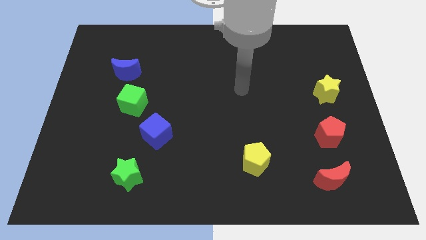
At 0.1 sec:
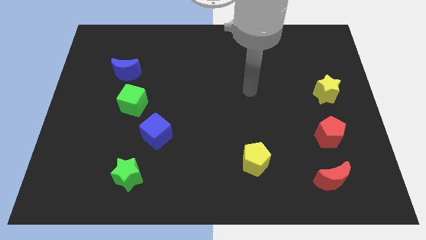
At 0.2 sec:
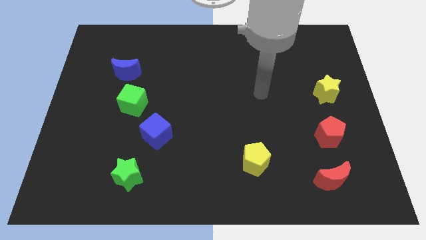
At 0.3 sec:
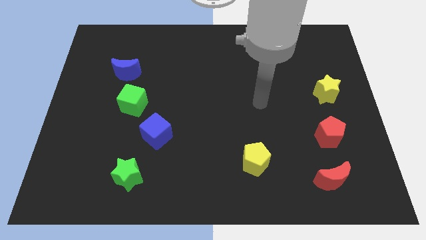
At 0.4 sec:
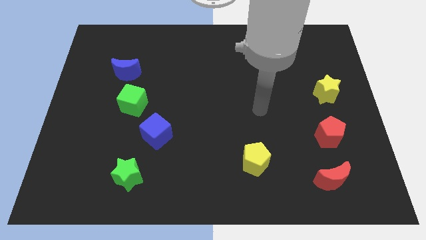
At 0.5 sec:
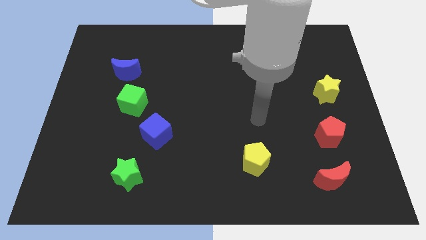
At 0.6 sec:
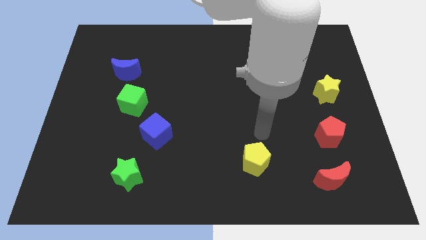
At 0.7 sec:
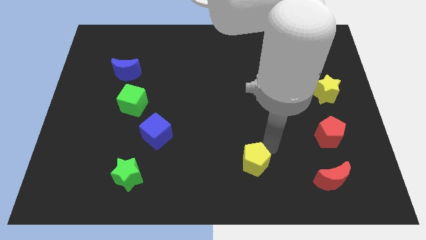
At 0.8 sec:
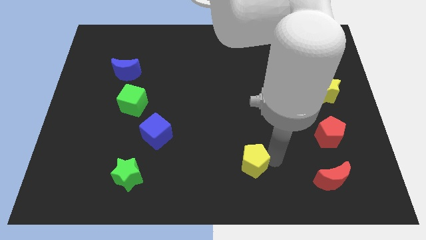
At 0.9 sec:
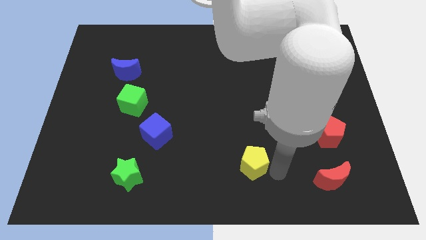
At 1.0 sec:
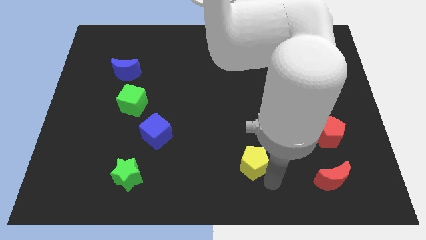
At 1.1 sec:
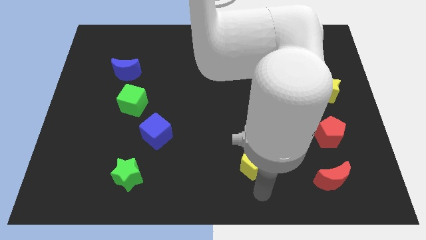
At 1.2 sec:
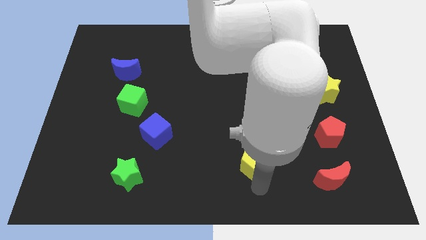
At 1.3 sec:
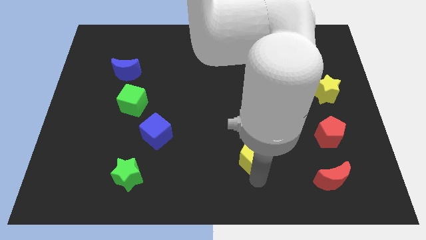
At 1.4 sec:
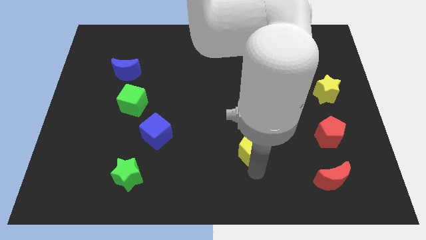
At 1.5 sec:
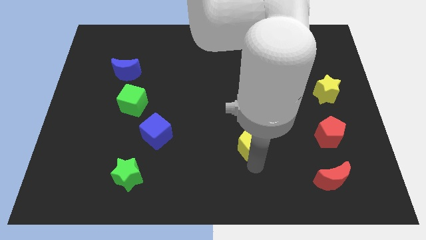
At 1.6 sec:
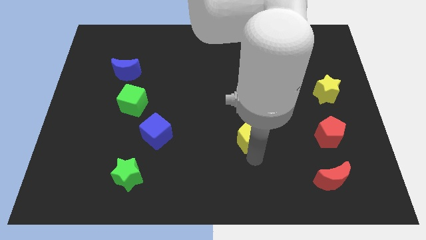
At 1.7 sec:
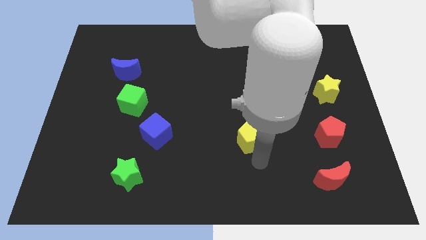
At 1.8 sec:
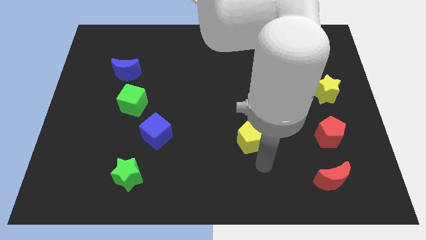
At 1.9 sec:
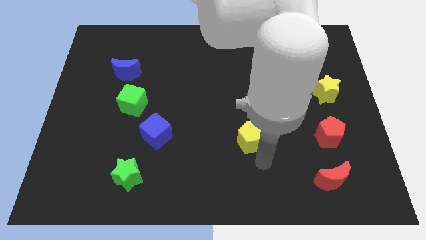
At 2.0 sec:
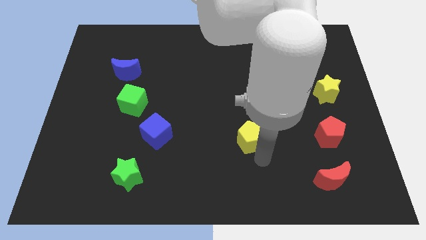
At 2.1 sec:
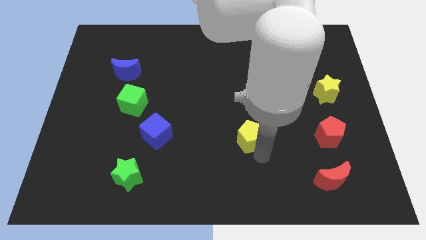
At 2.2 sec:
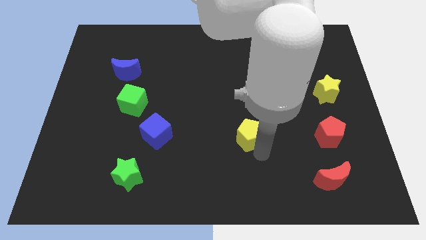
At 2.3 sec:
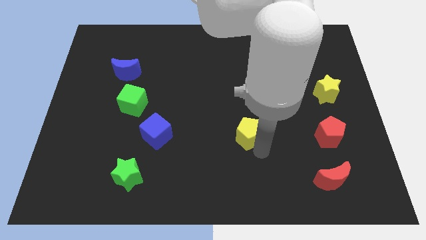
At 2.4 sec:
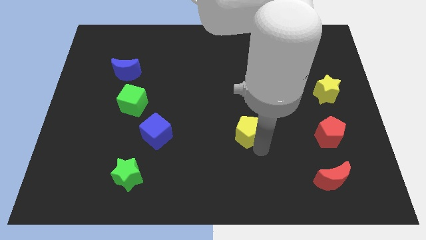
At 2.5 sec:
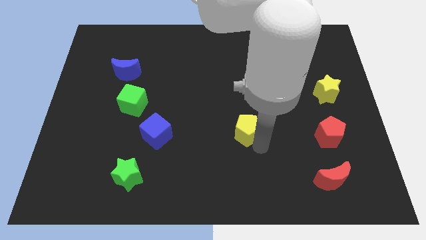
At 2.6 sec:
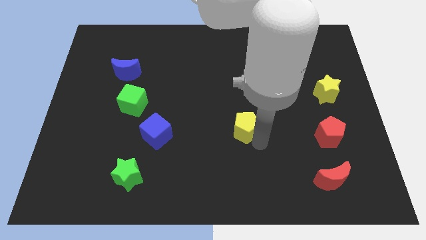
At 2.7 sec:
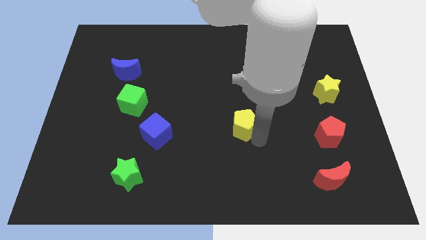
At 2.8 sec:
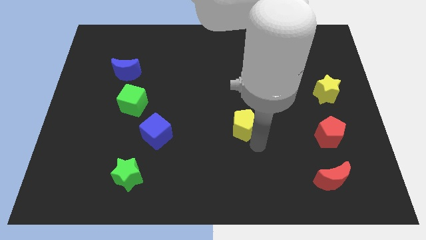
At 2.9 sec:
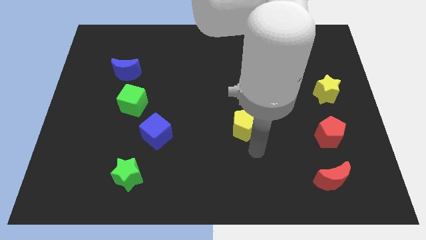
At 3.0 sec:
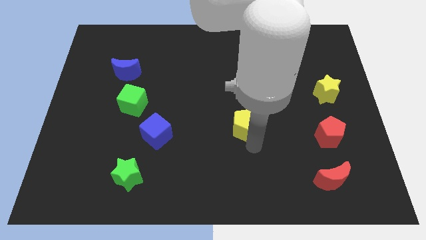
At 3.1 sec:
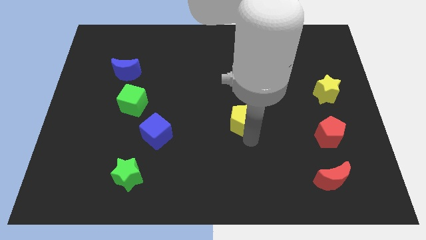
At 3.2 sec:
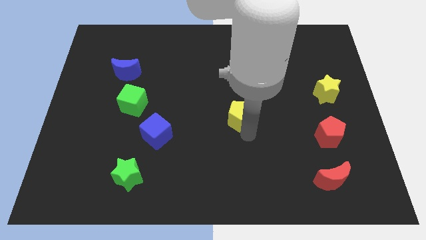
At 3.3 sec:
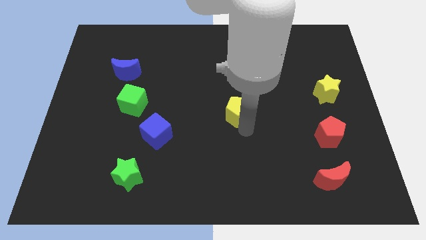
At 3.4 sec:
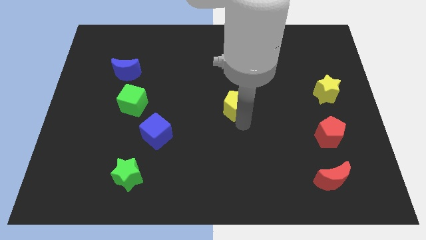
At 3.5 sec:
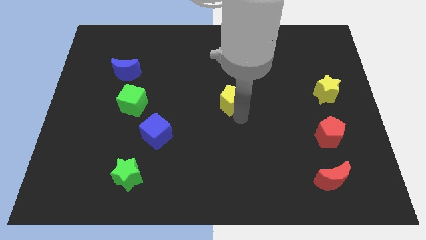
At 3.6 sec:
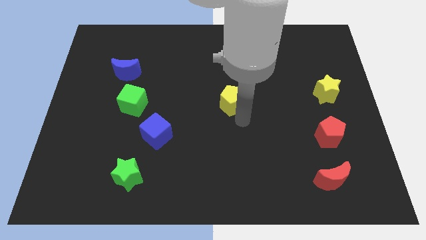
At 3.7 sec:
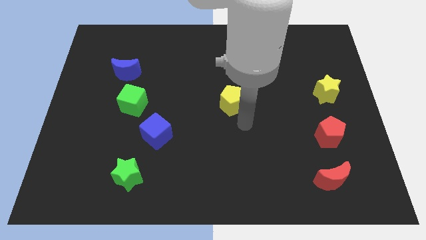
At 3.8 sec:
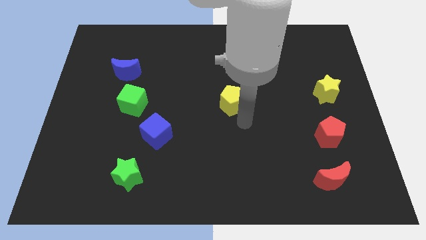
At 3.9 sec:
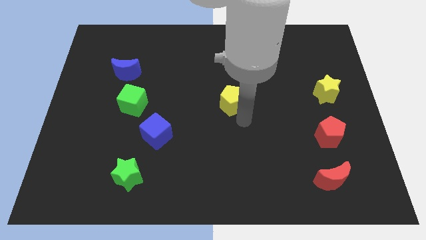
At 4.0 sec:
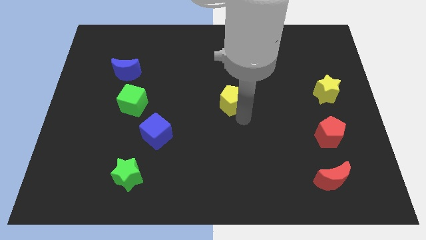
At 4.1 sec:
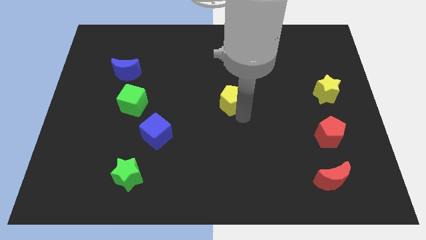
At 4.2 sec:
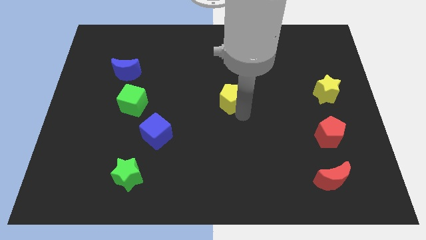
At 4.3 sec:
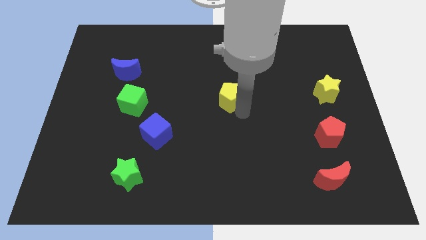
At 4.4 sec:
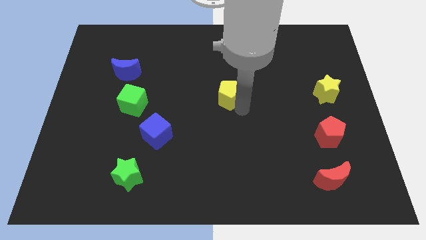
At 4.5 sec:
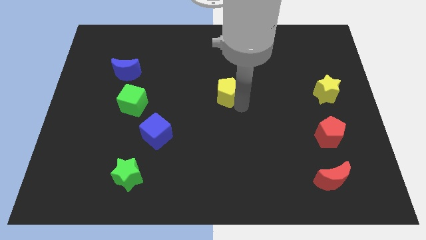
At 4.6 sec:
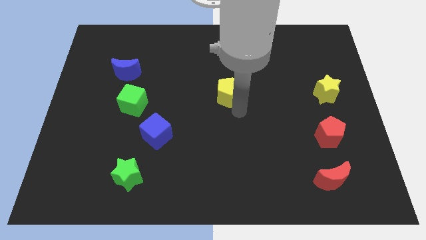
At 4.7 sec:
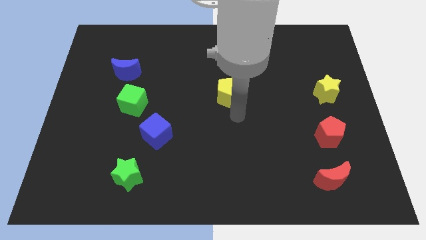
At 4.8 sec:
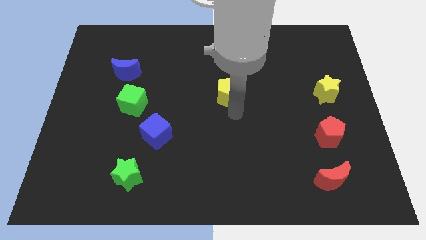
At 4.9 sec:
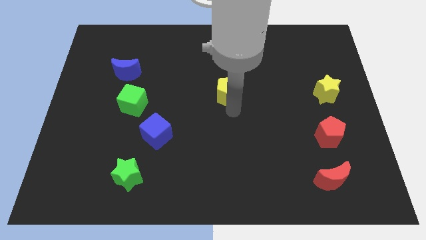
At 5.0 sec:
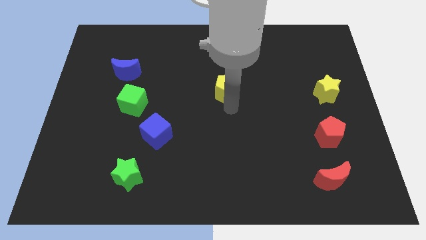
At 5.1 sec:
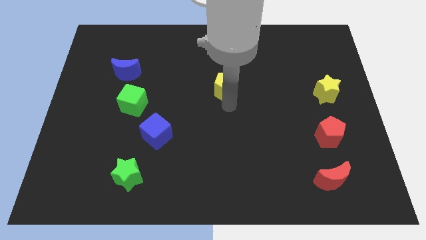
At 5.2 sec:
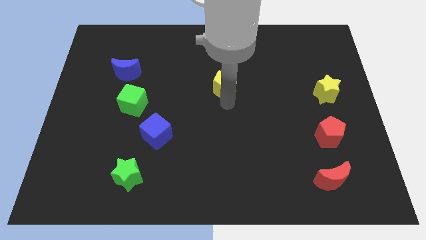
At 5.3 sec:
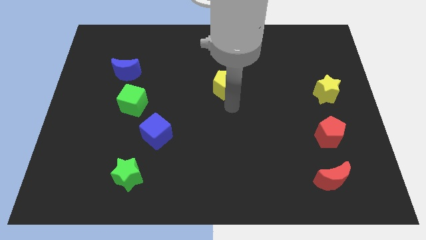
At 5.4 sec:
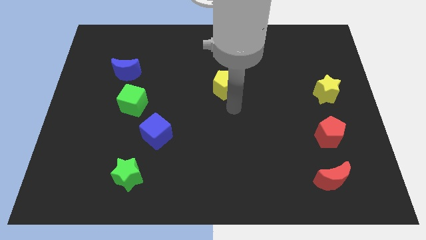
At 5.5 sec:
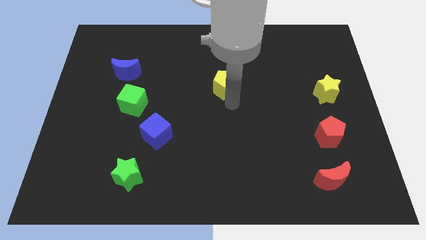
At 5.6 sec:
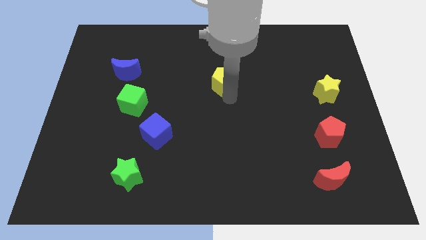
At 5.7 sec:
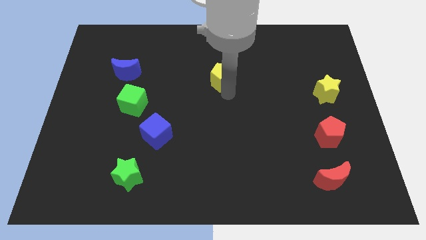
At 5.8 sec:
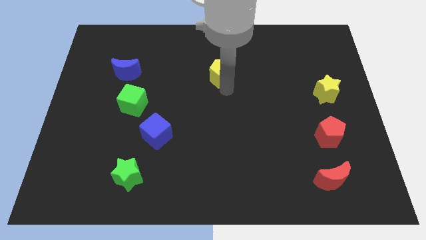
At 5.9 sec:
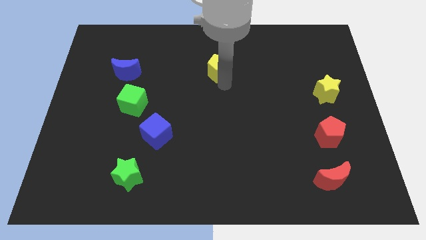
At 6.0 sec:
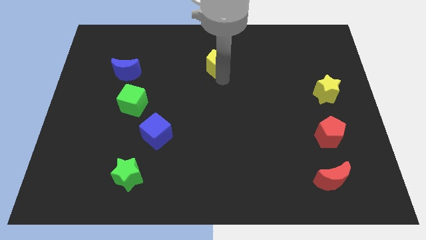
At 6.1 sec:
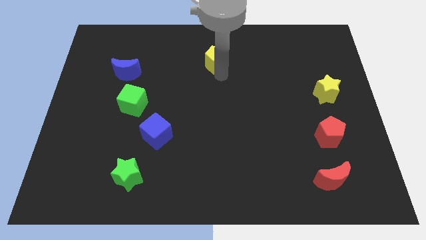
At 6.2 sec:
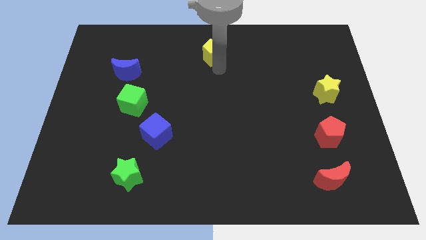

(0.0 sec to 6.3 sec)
slide the yellow pentagon to the top
